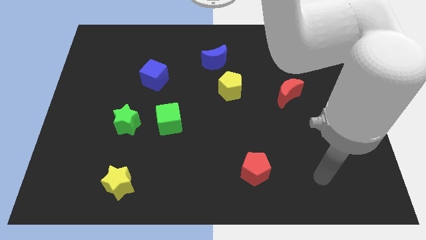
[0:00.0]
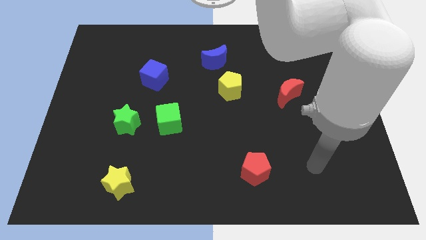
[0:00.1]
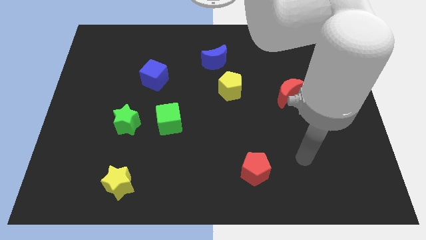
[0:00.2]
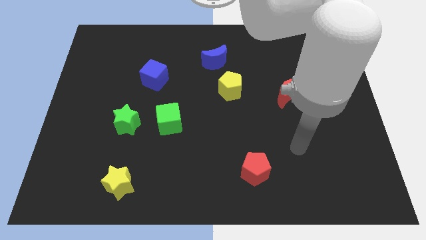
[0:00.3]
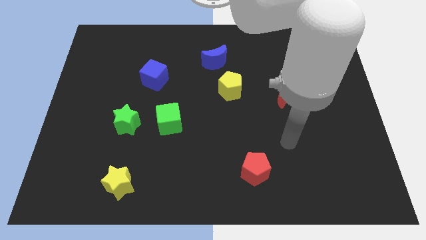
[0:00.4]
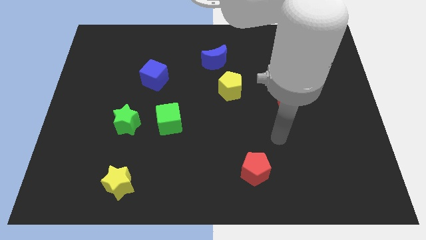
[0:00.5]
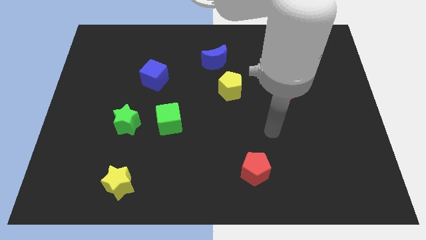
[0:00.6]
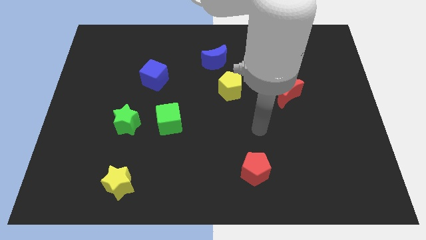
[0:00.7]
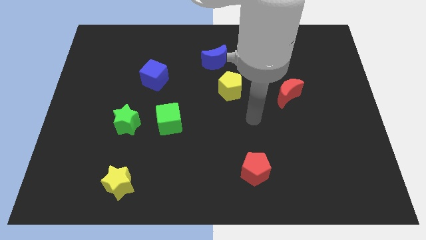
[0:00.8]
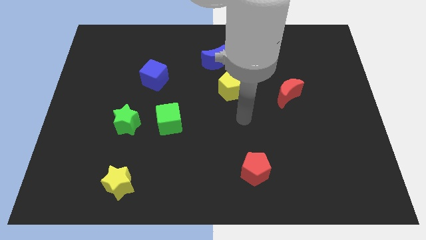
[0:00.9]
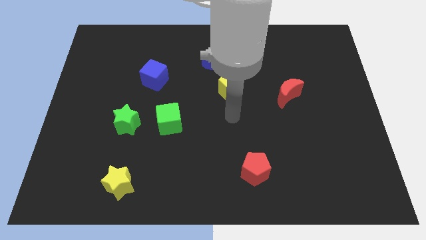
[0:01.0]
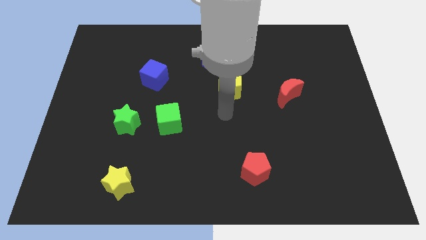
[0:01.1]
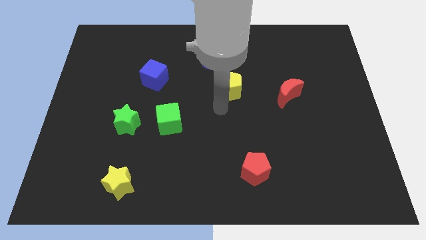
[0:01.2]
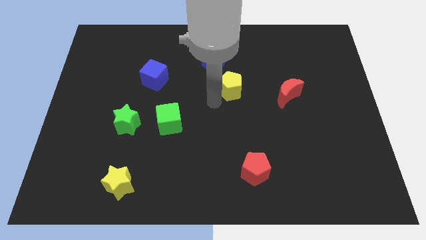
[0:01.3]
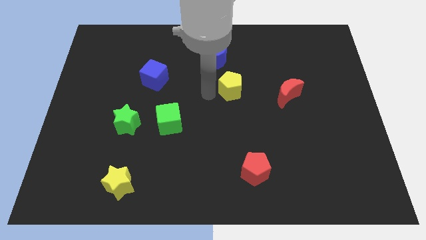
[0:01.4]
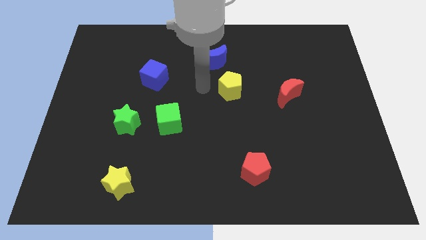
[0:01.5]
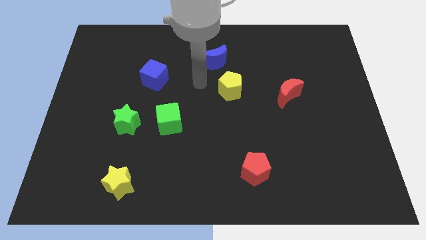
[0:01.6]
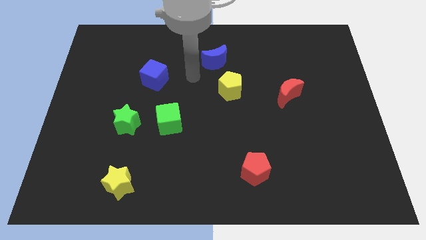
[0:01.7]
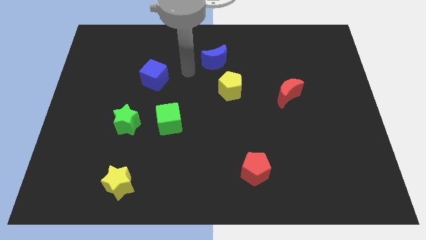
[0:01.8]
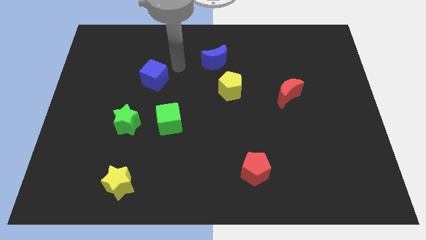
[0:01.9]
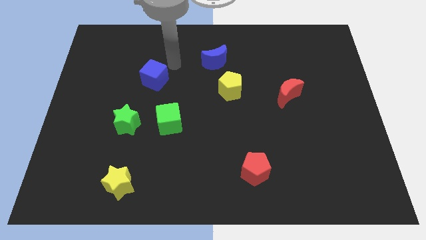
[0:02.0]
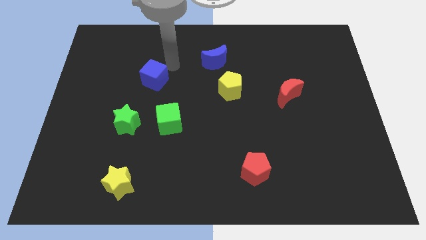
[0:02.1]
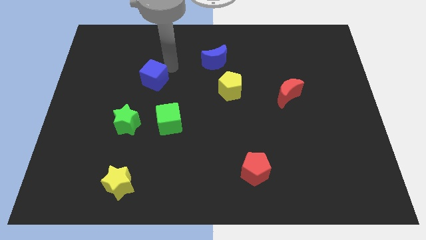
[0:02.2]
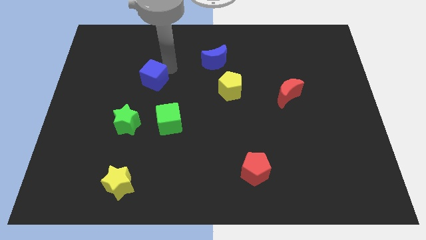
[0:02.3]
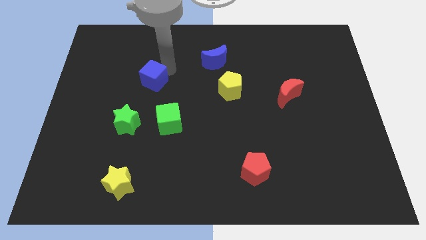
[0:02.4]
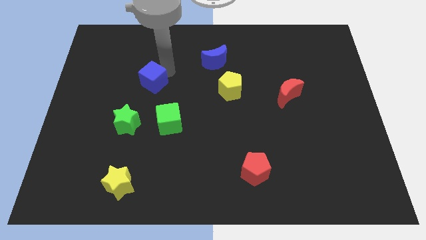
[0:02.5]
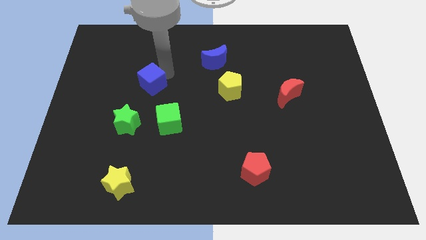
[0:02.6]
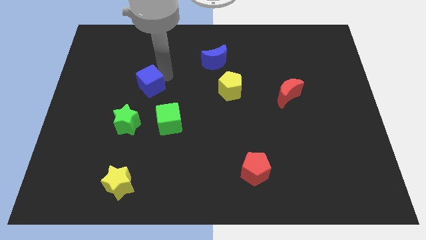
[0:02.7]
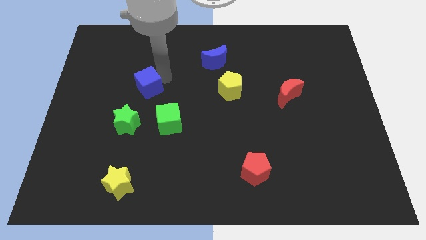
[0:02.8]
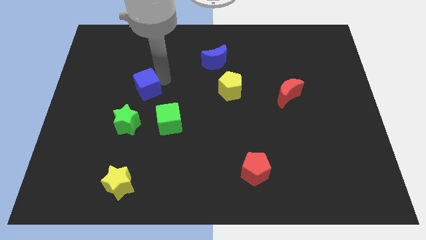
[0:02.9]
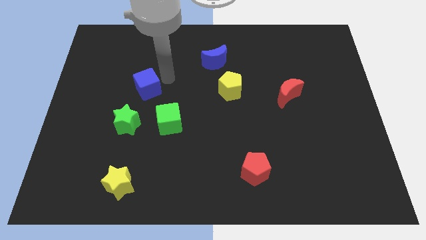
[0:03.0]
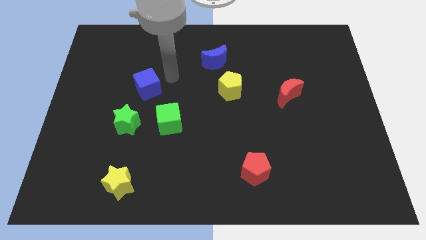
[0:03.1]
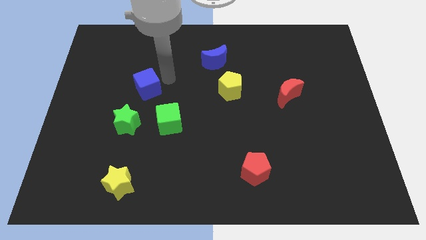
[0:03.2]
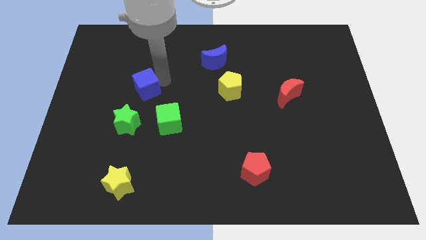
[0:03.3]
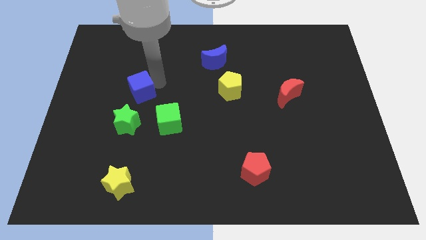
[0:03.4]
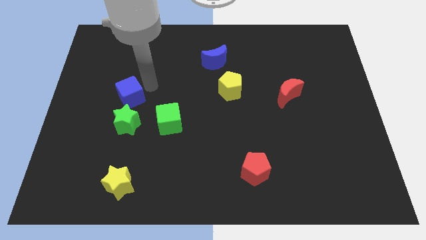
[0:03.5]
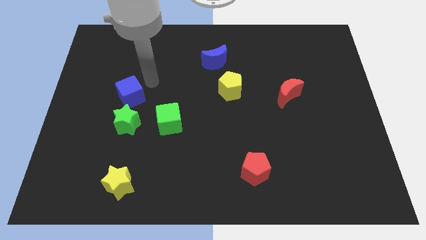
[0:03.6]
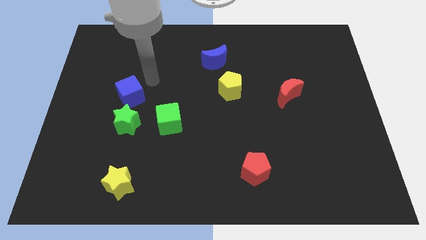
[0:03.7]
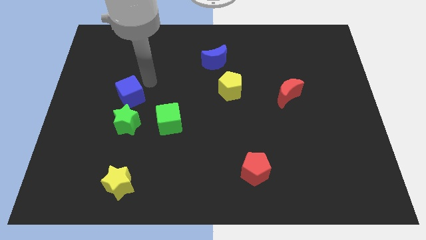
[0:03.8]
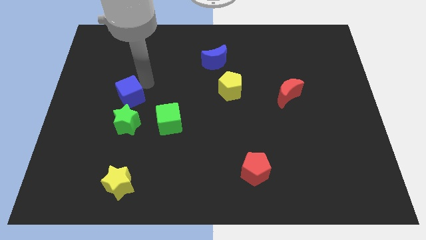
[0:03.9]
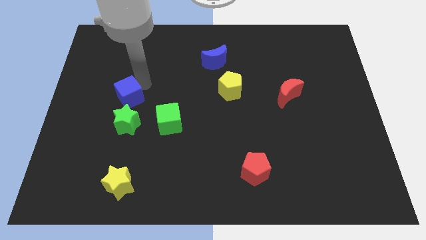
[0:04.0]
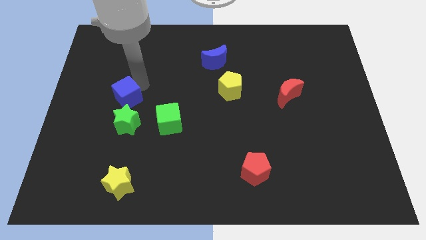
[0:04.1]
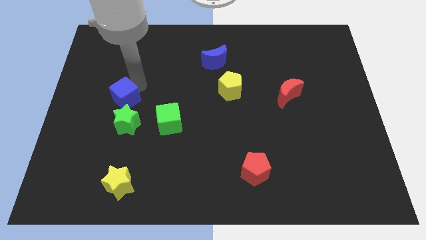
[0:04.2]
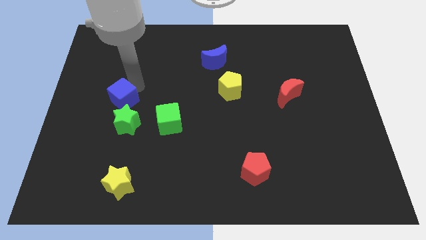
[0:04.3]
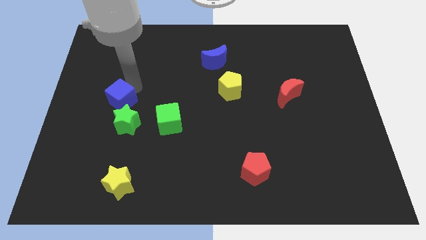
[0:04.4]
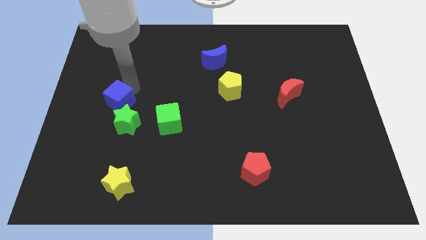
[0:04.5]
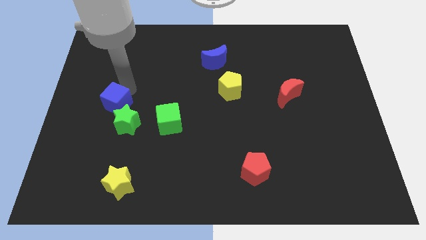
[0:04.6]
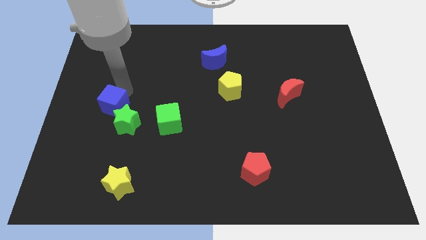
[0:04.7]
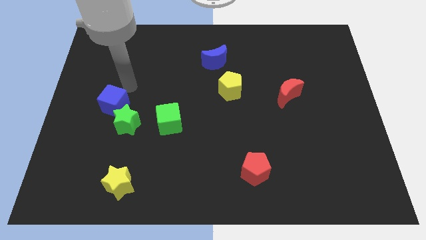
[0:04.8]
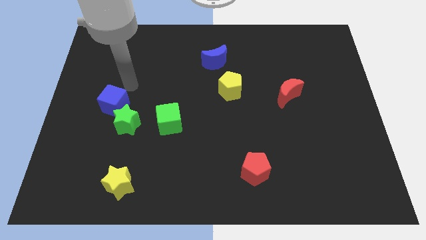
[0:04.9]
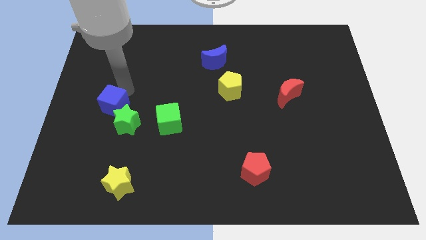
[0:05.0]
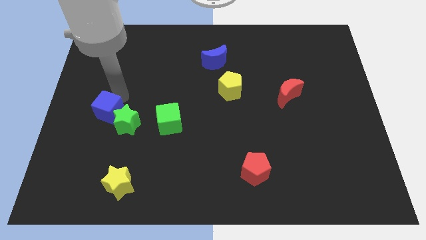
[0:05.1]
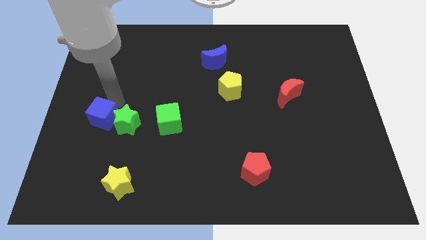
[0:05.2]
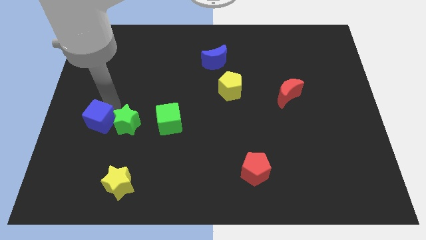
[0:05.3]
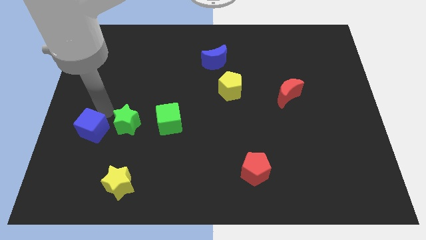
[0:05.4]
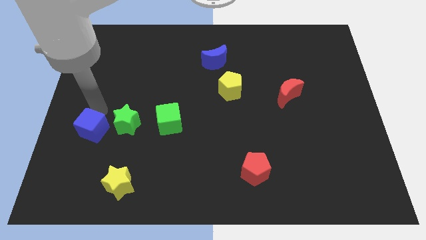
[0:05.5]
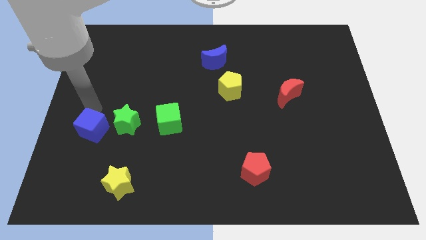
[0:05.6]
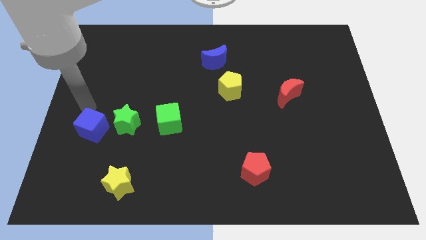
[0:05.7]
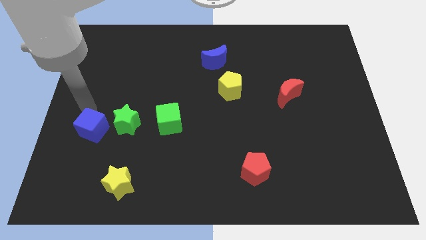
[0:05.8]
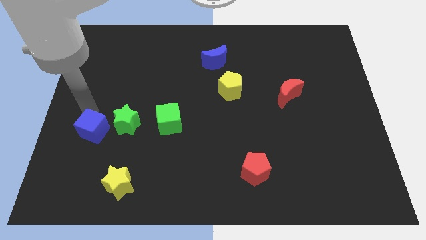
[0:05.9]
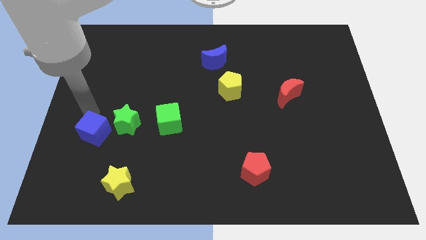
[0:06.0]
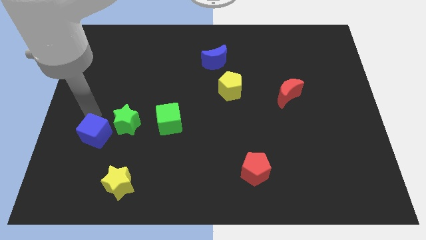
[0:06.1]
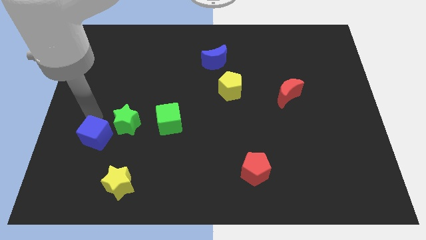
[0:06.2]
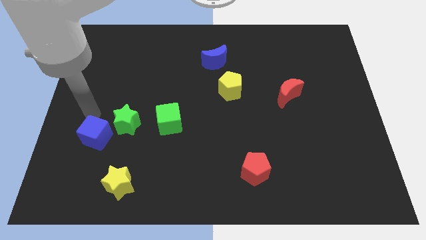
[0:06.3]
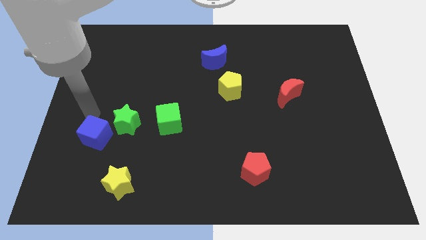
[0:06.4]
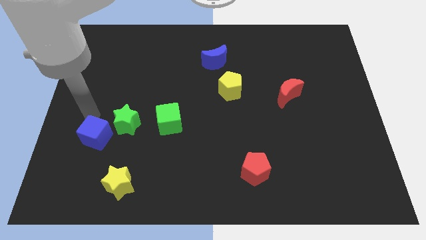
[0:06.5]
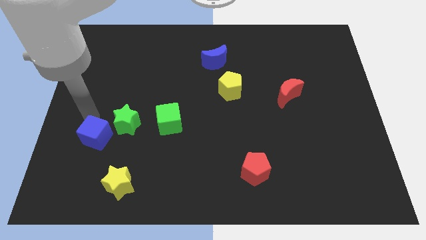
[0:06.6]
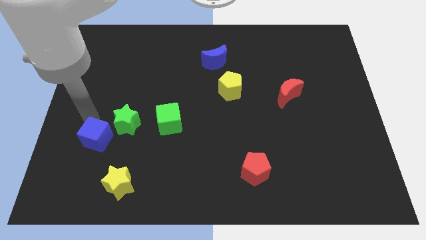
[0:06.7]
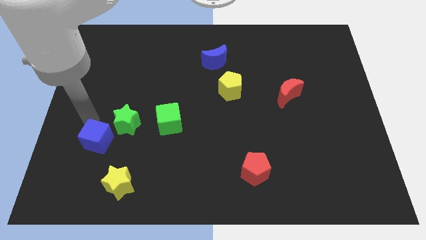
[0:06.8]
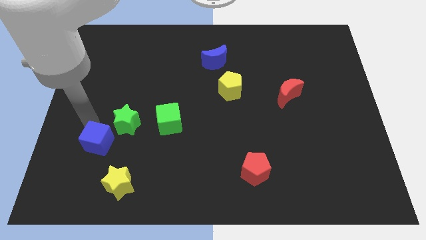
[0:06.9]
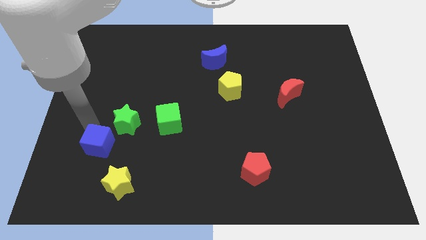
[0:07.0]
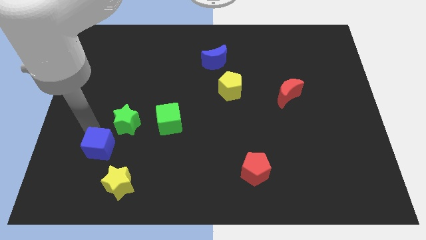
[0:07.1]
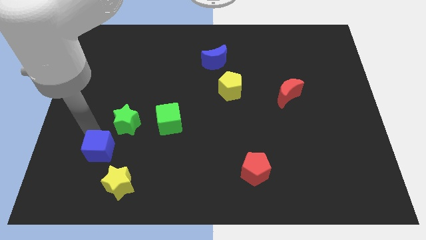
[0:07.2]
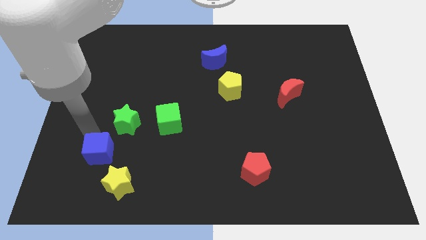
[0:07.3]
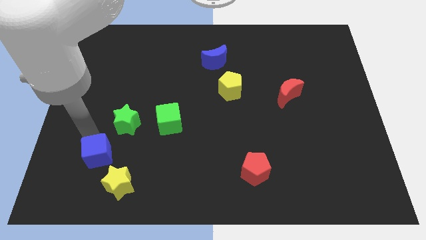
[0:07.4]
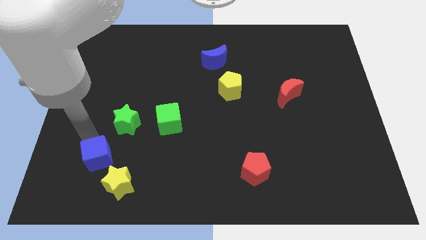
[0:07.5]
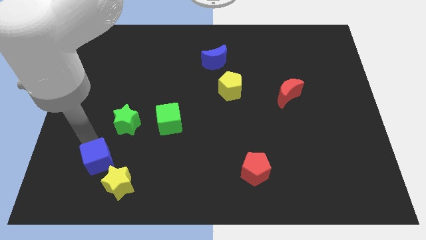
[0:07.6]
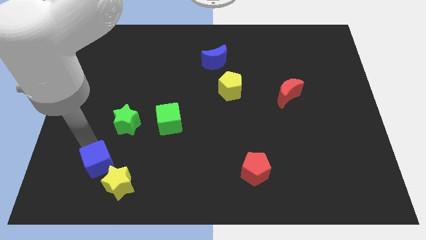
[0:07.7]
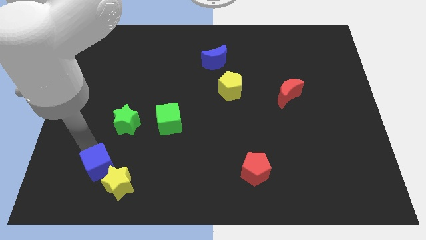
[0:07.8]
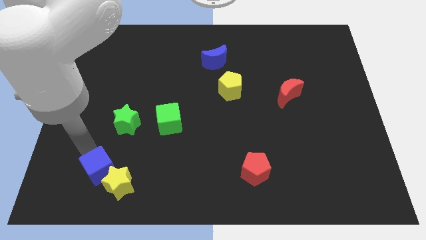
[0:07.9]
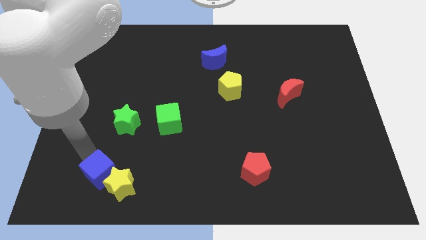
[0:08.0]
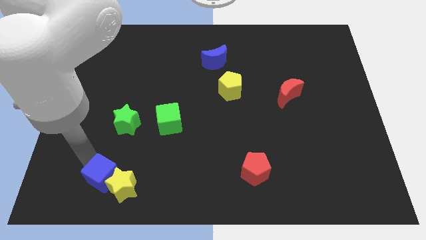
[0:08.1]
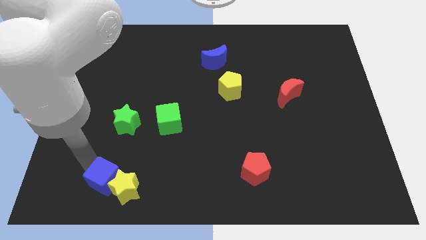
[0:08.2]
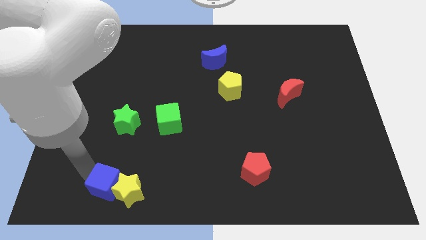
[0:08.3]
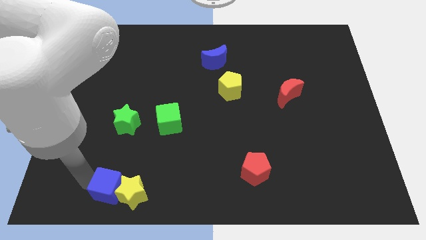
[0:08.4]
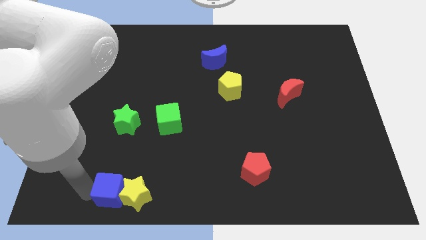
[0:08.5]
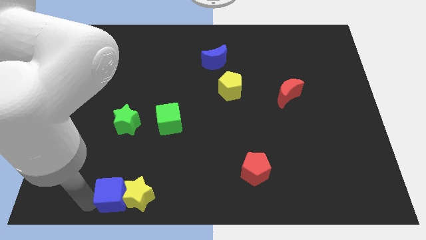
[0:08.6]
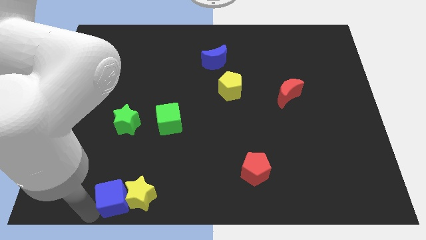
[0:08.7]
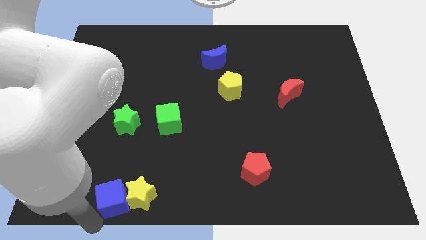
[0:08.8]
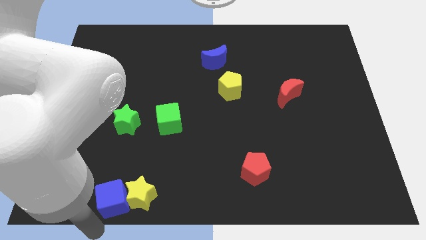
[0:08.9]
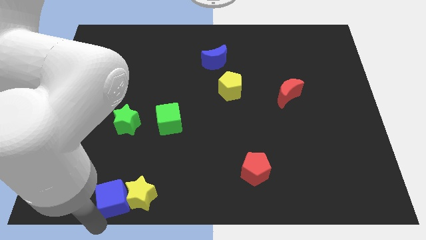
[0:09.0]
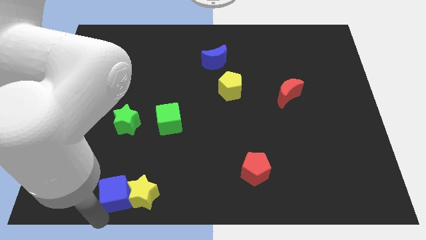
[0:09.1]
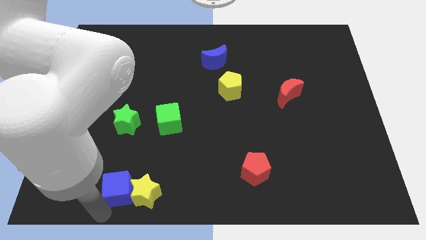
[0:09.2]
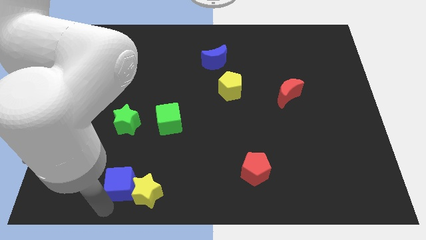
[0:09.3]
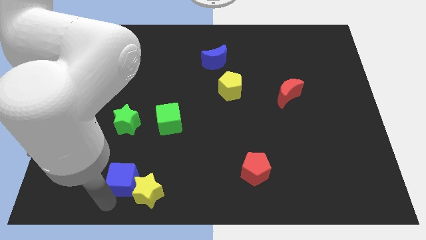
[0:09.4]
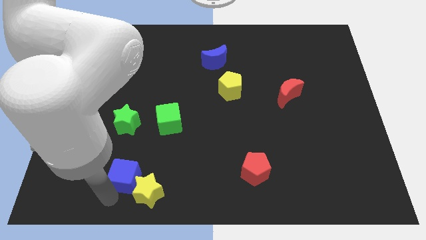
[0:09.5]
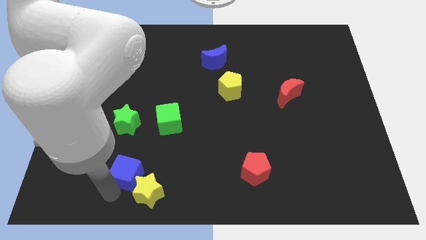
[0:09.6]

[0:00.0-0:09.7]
slide the blue cube to the top of the yellow star
